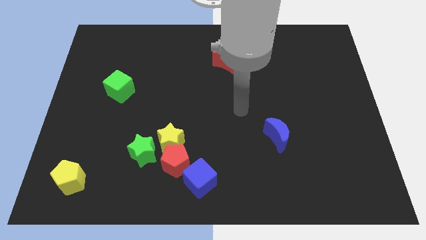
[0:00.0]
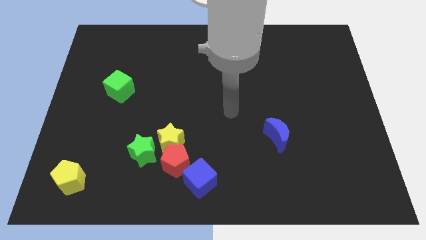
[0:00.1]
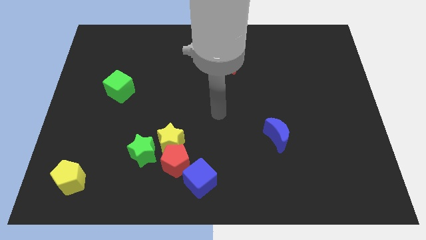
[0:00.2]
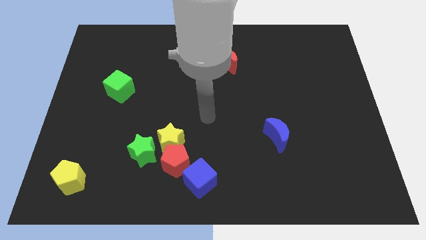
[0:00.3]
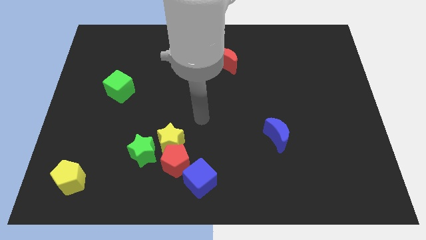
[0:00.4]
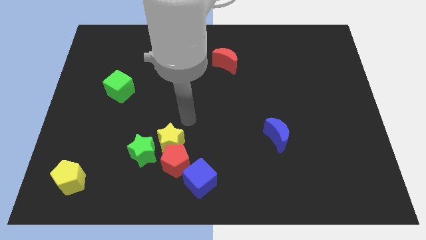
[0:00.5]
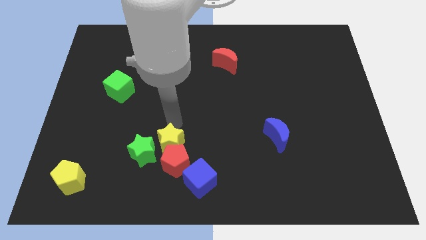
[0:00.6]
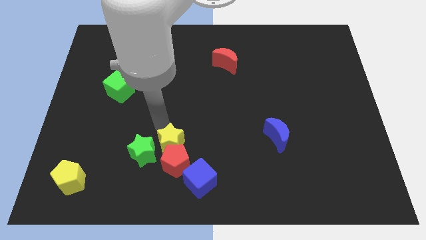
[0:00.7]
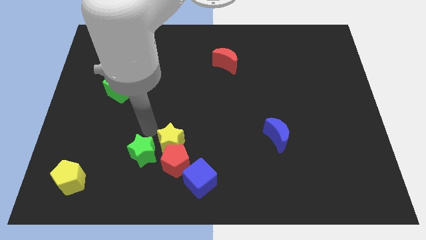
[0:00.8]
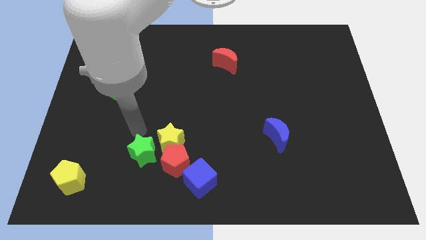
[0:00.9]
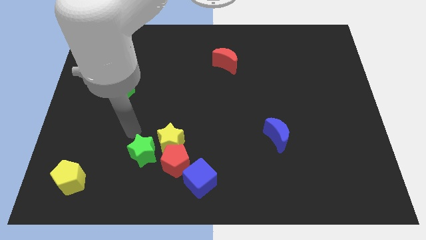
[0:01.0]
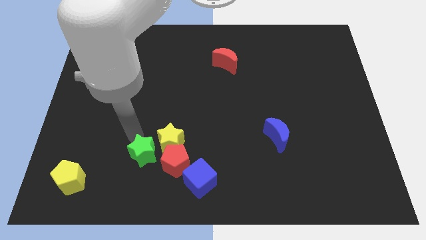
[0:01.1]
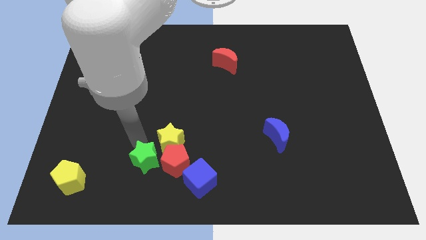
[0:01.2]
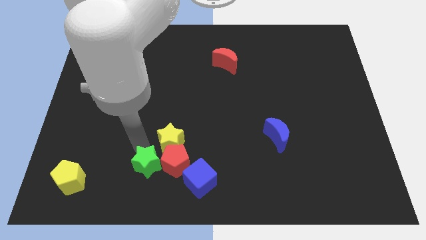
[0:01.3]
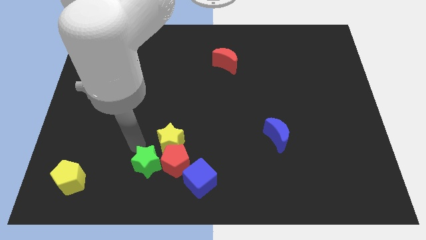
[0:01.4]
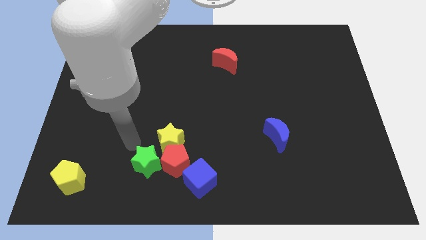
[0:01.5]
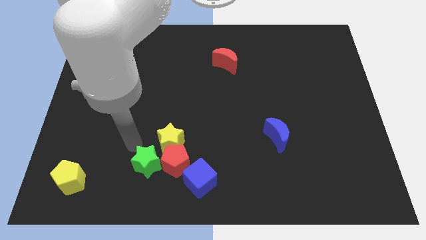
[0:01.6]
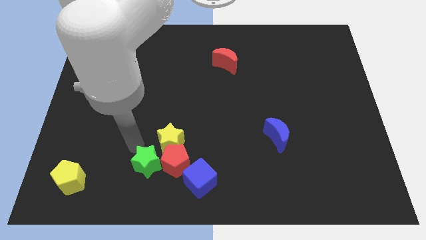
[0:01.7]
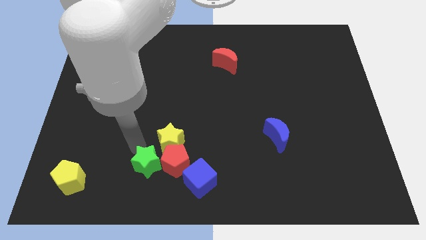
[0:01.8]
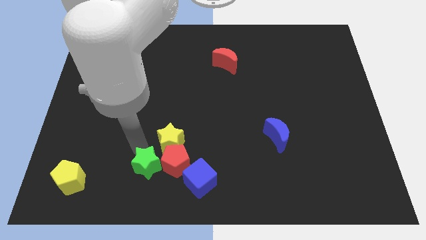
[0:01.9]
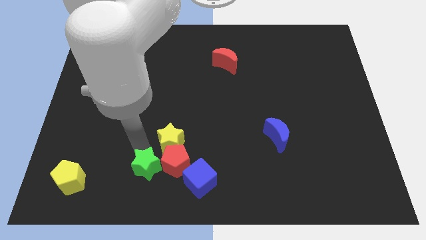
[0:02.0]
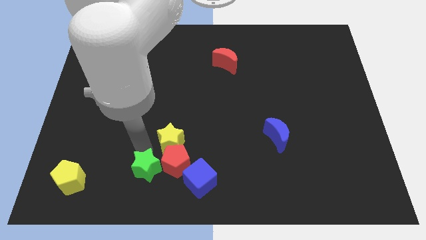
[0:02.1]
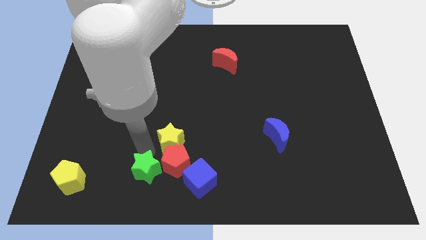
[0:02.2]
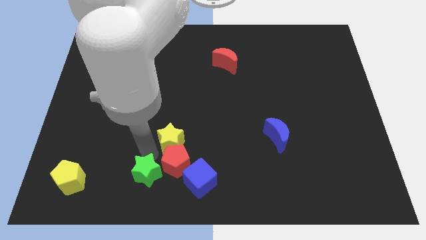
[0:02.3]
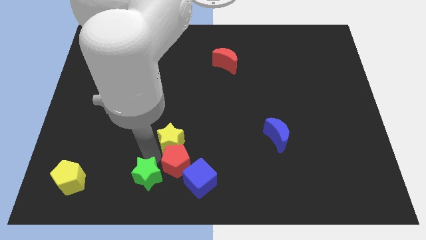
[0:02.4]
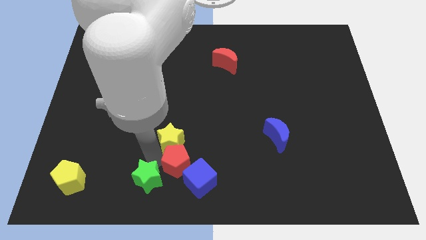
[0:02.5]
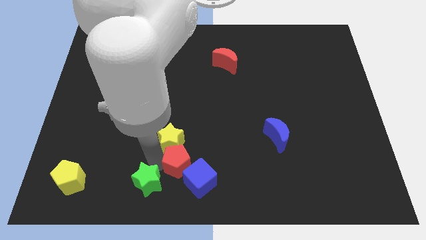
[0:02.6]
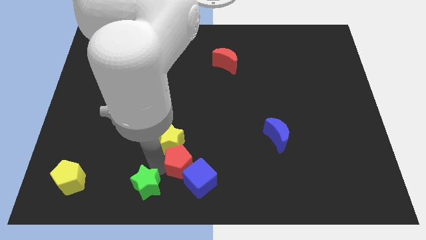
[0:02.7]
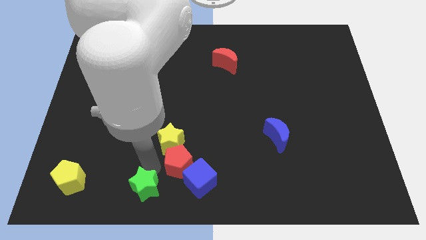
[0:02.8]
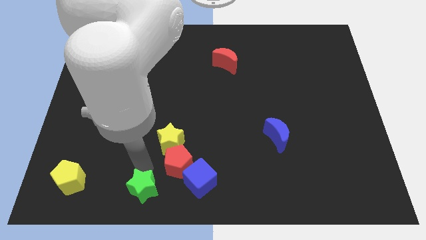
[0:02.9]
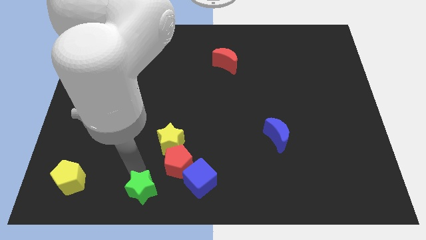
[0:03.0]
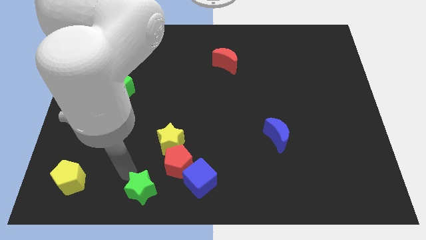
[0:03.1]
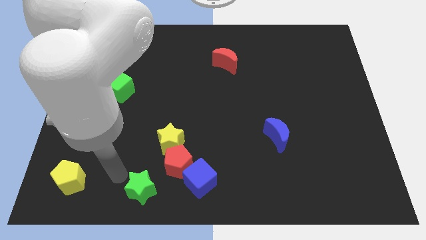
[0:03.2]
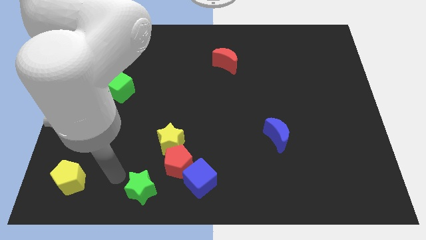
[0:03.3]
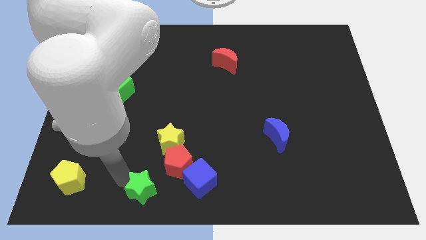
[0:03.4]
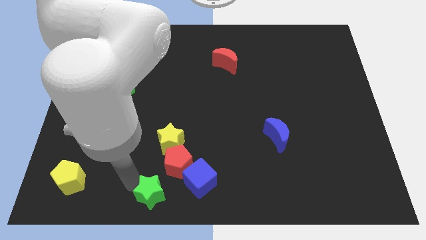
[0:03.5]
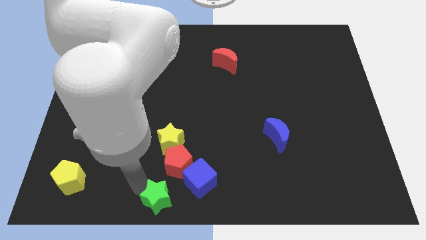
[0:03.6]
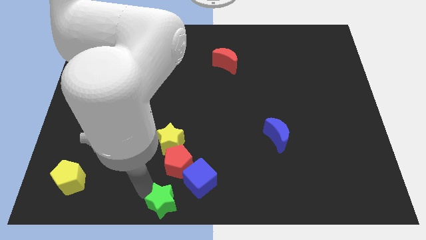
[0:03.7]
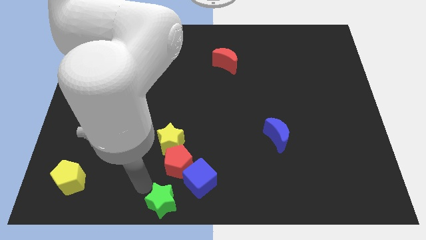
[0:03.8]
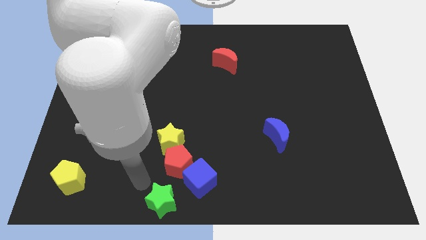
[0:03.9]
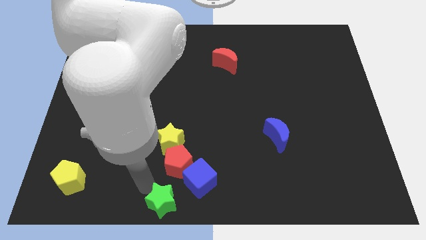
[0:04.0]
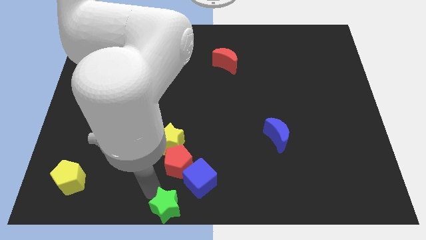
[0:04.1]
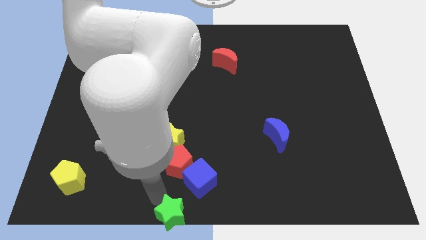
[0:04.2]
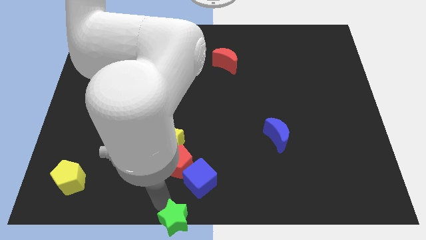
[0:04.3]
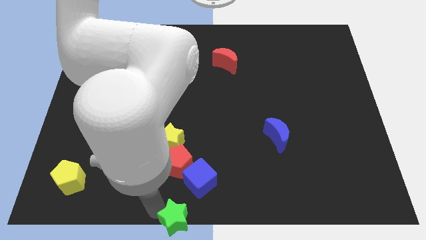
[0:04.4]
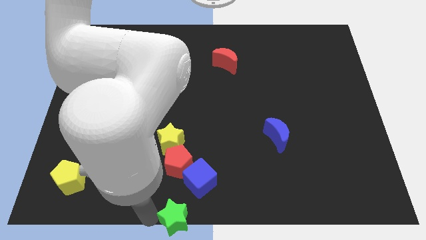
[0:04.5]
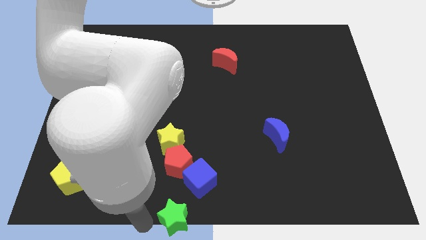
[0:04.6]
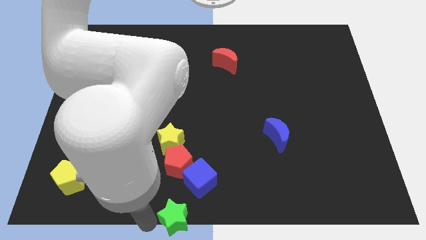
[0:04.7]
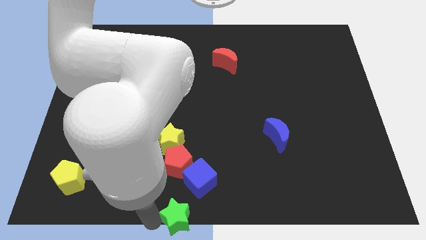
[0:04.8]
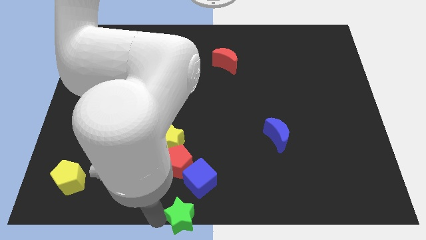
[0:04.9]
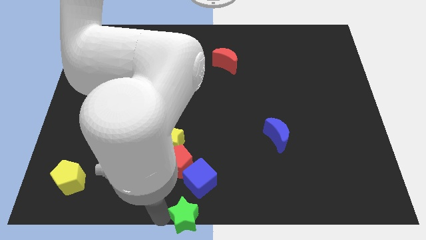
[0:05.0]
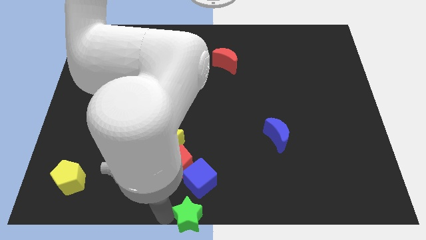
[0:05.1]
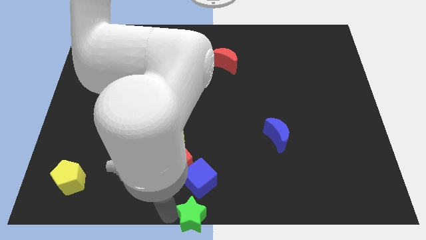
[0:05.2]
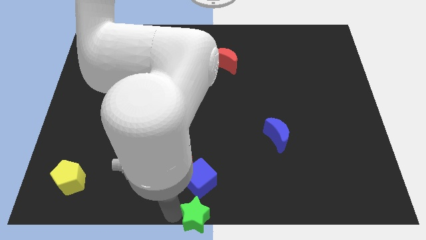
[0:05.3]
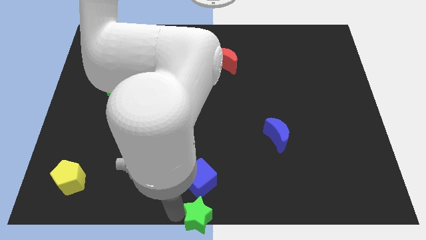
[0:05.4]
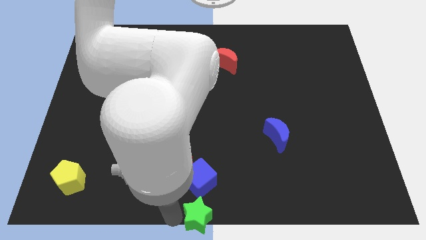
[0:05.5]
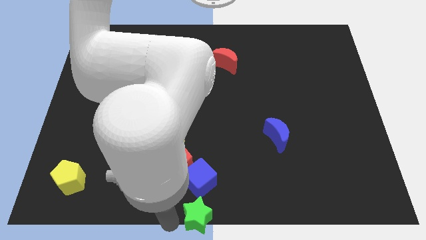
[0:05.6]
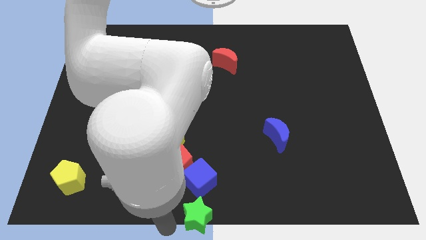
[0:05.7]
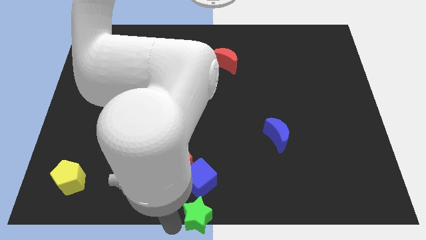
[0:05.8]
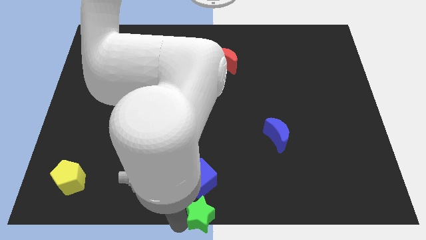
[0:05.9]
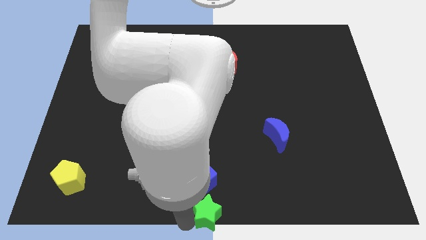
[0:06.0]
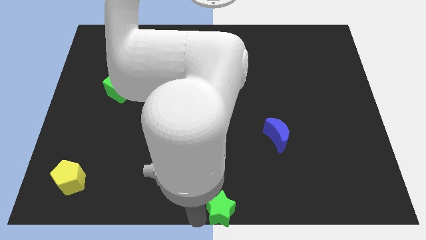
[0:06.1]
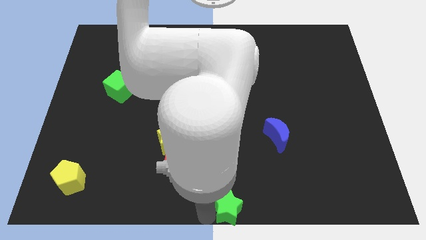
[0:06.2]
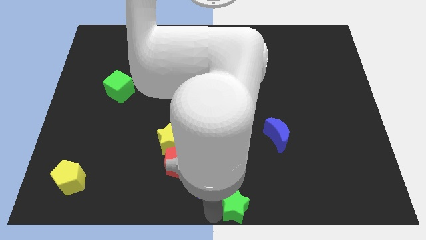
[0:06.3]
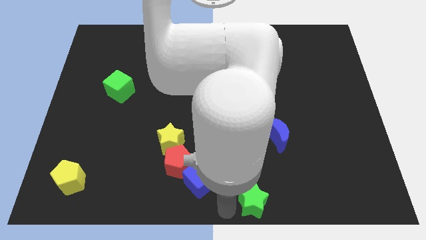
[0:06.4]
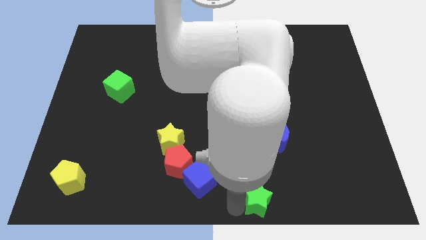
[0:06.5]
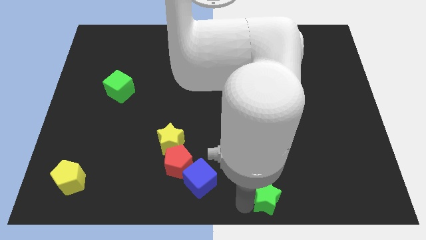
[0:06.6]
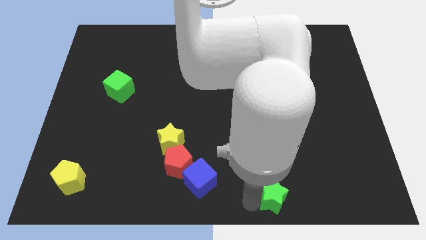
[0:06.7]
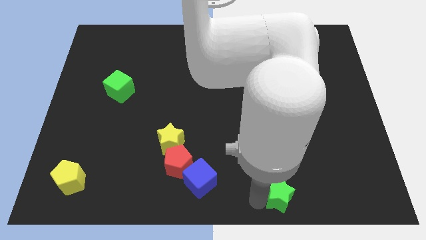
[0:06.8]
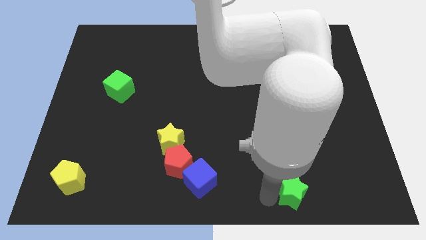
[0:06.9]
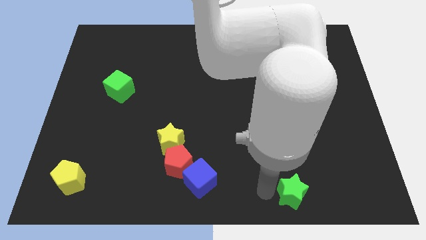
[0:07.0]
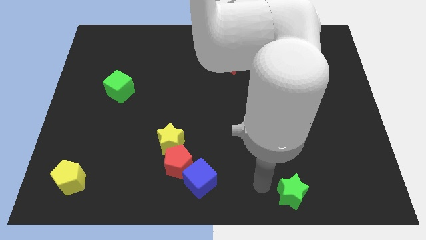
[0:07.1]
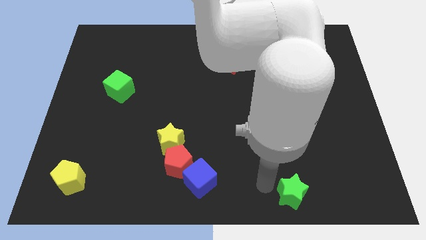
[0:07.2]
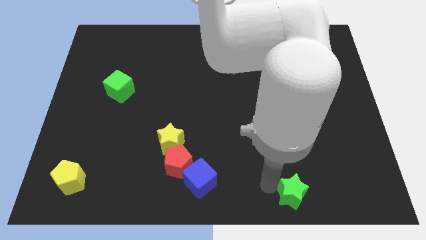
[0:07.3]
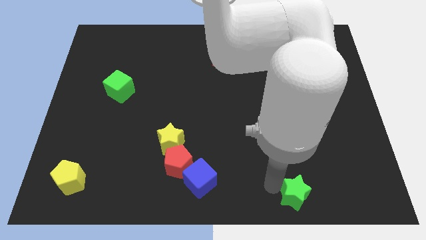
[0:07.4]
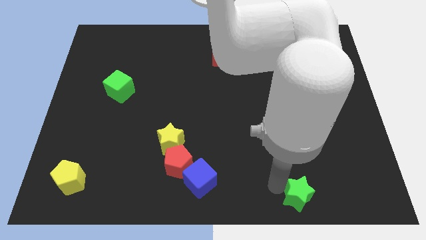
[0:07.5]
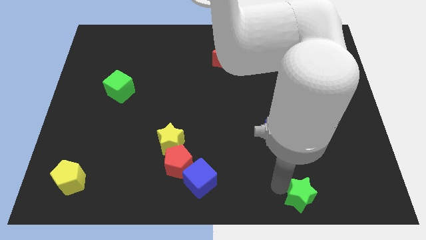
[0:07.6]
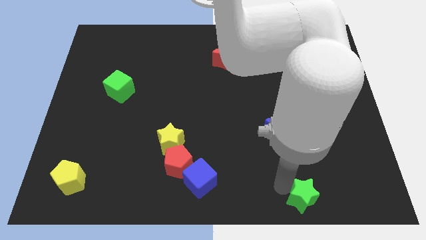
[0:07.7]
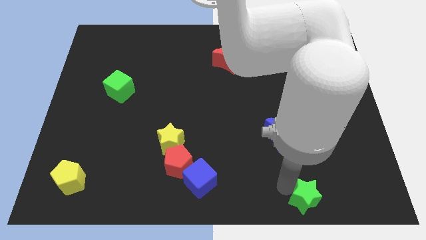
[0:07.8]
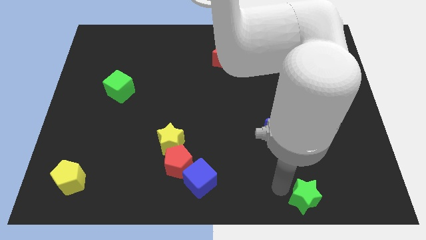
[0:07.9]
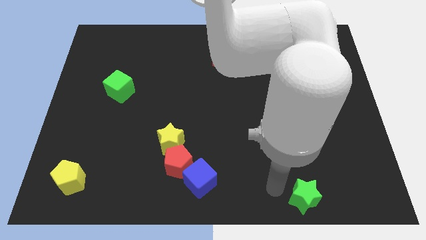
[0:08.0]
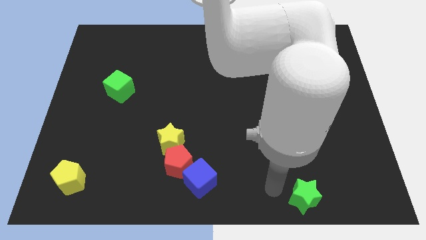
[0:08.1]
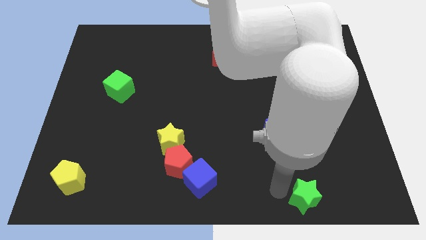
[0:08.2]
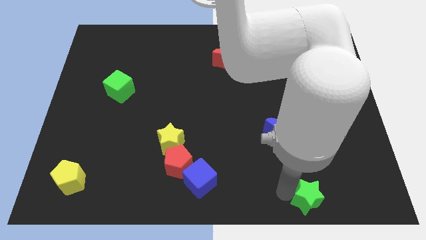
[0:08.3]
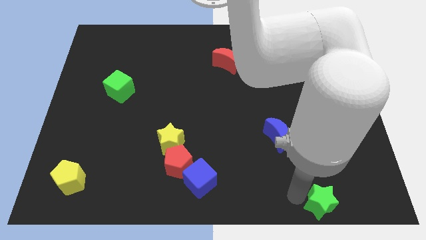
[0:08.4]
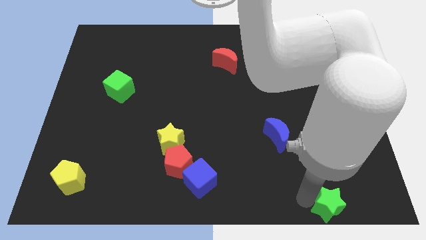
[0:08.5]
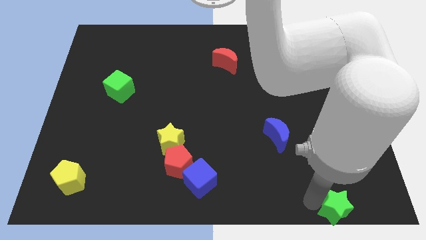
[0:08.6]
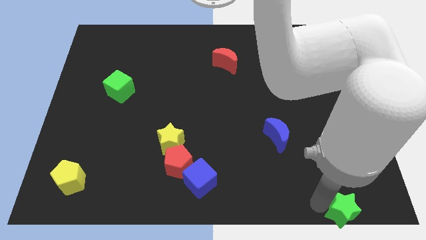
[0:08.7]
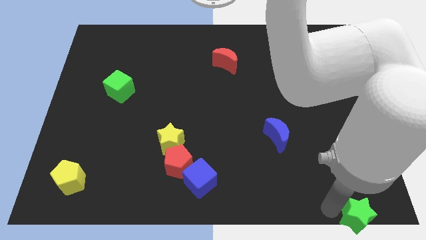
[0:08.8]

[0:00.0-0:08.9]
push the green star to the bottom right
